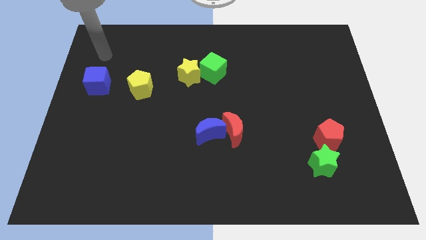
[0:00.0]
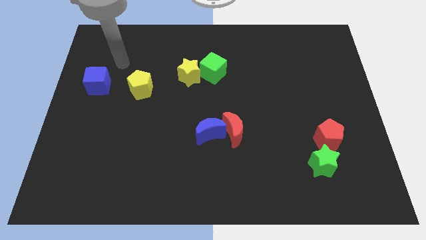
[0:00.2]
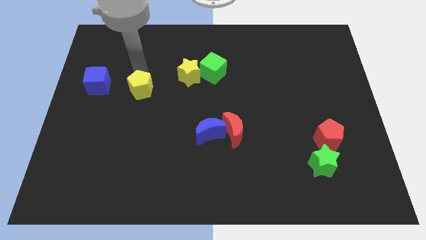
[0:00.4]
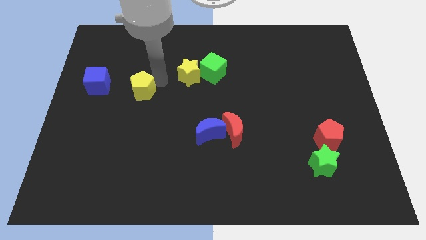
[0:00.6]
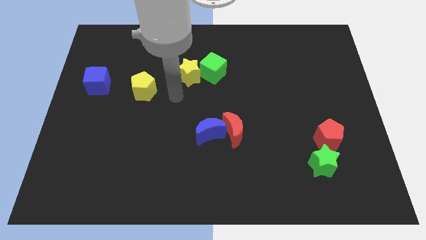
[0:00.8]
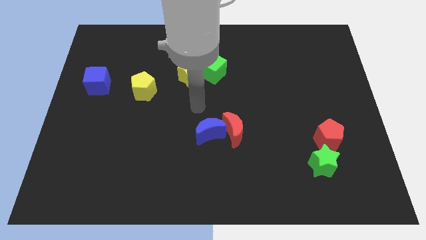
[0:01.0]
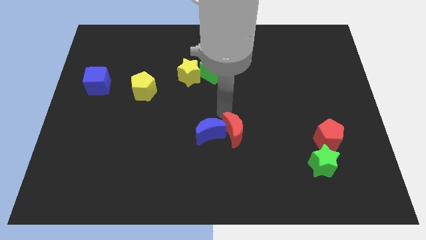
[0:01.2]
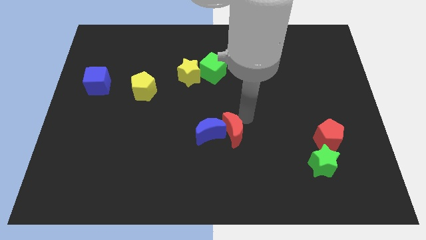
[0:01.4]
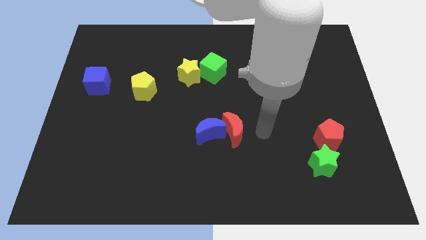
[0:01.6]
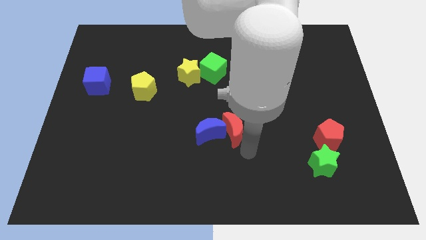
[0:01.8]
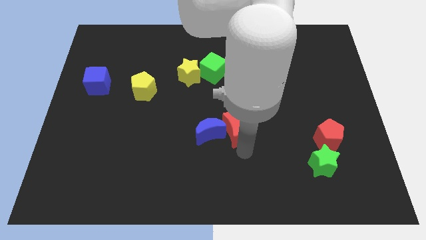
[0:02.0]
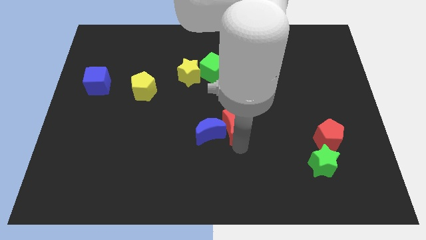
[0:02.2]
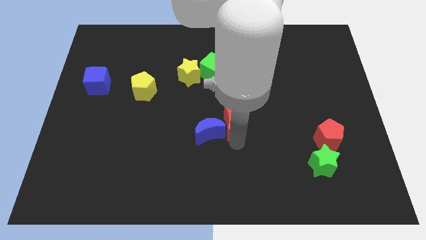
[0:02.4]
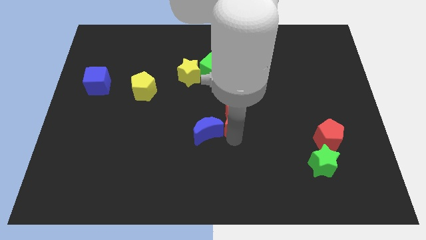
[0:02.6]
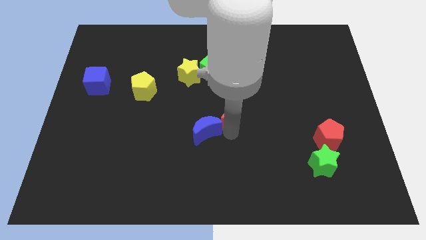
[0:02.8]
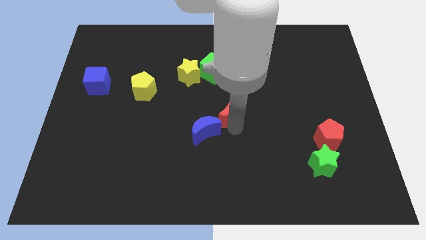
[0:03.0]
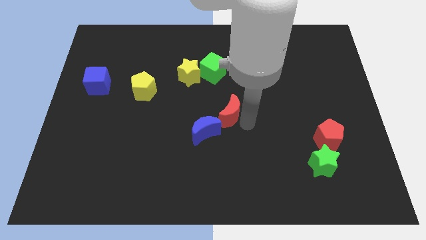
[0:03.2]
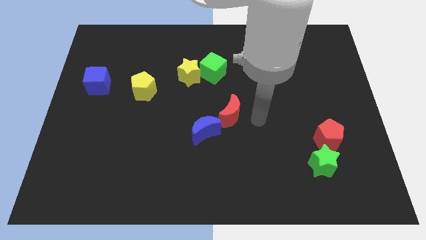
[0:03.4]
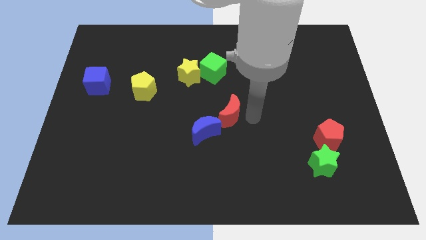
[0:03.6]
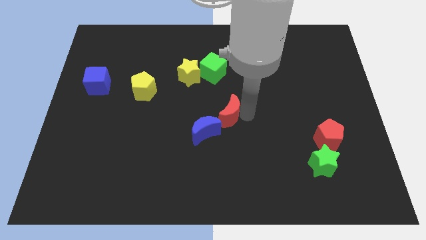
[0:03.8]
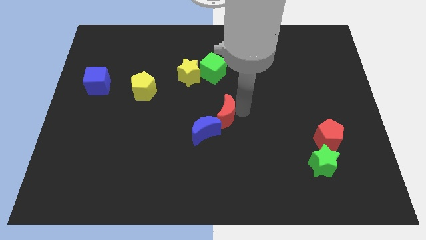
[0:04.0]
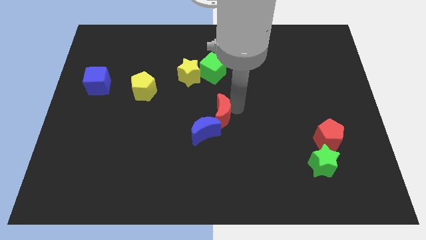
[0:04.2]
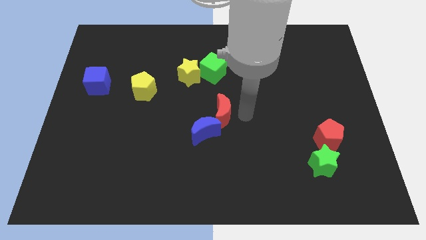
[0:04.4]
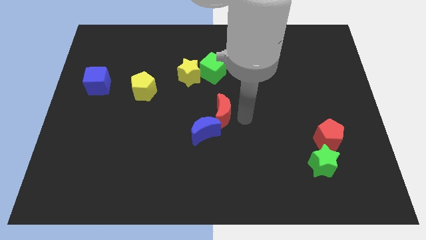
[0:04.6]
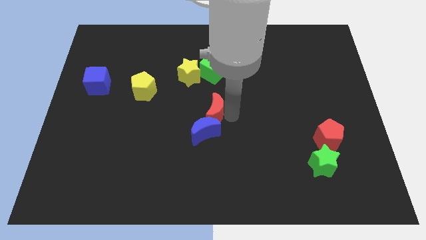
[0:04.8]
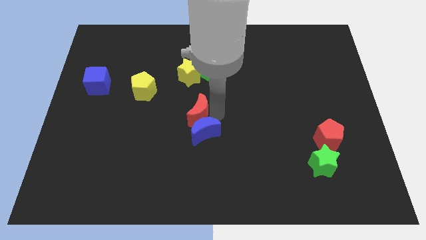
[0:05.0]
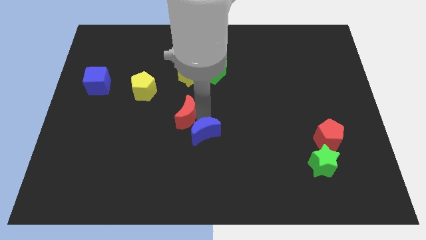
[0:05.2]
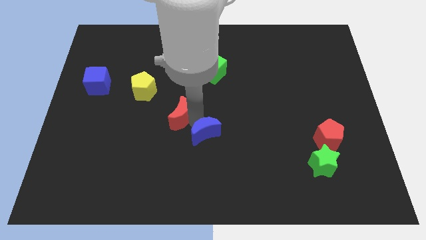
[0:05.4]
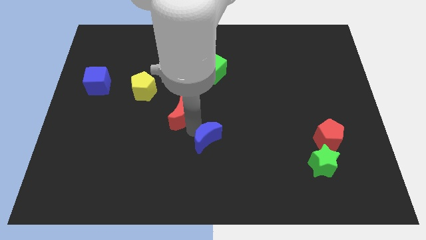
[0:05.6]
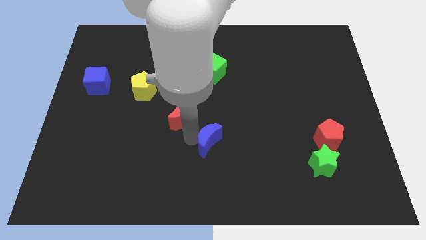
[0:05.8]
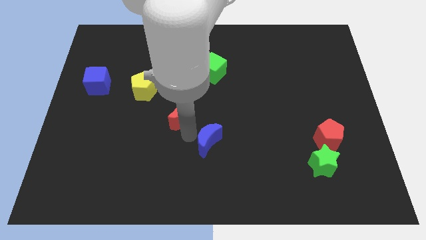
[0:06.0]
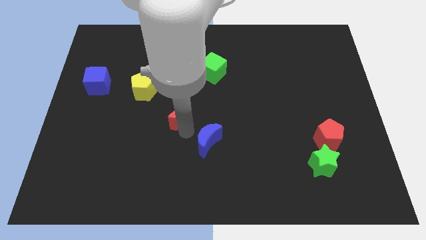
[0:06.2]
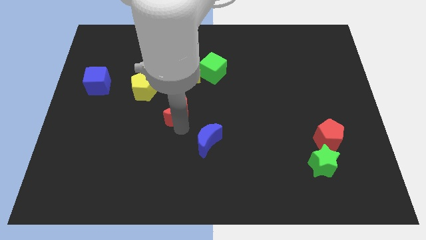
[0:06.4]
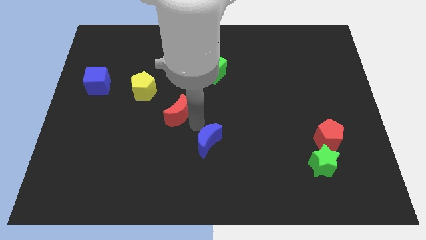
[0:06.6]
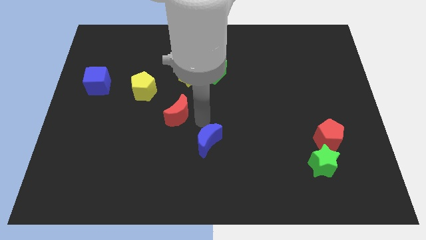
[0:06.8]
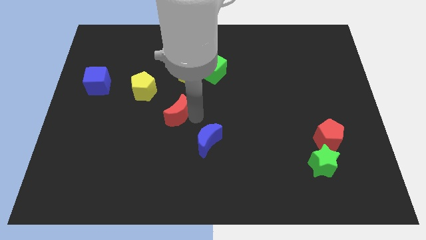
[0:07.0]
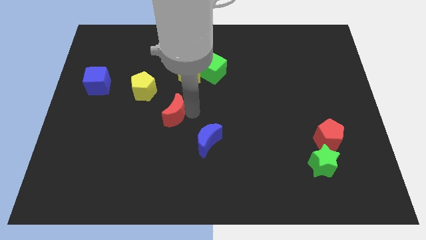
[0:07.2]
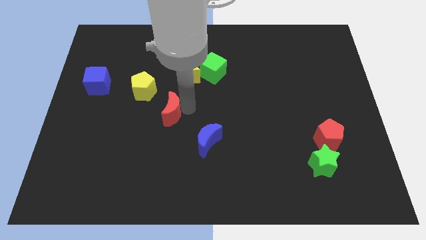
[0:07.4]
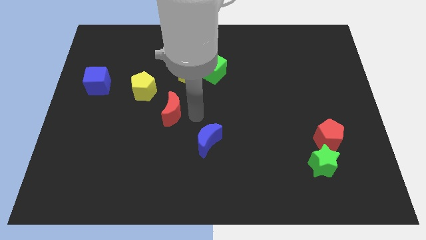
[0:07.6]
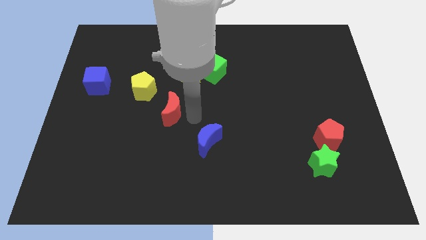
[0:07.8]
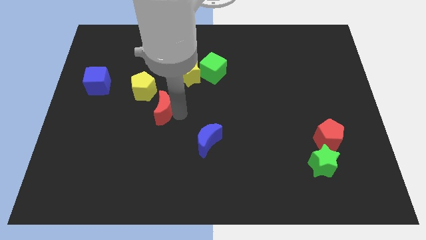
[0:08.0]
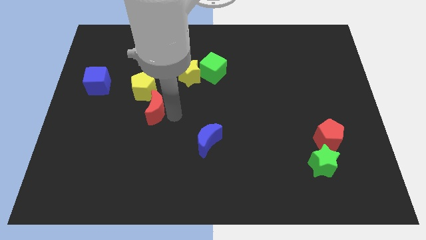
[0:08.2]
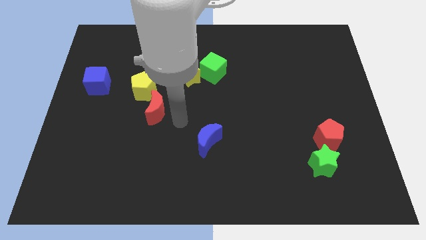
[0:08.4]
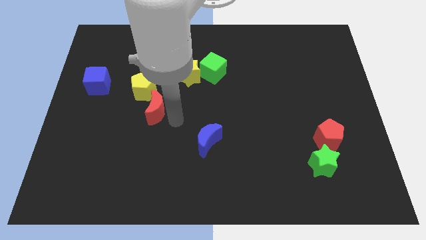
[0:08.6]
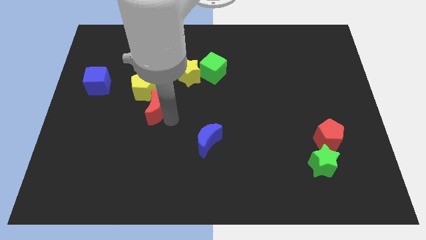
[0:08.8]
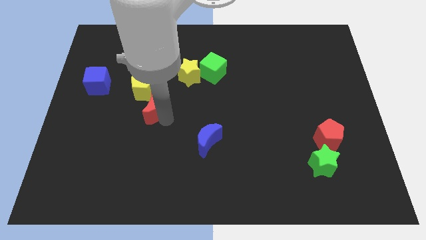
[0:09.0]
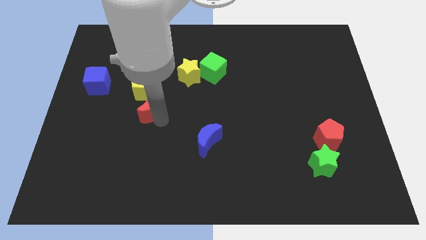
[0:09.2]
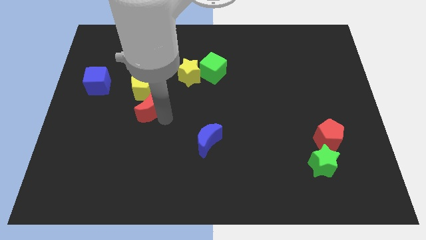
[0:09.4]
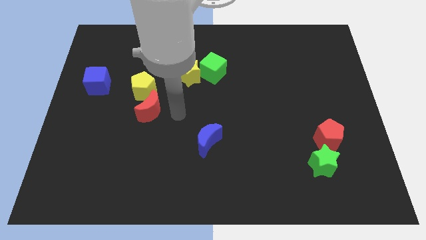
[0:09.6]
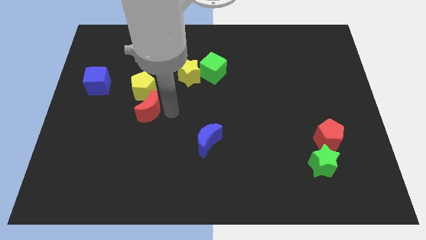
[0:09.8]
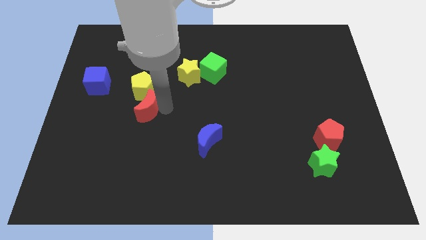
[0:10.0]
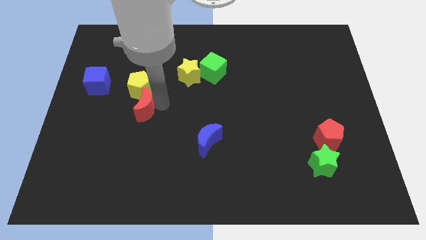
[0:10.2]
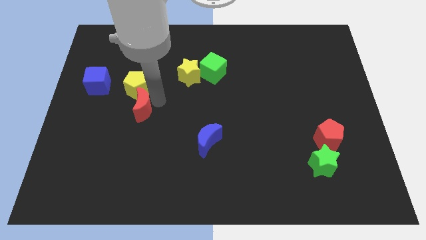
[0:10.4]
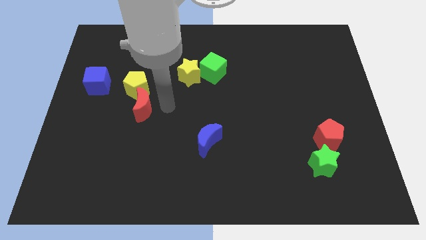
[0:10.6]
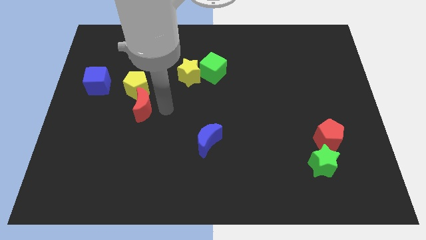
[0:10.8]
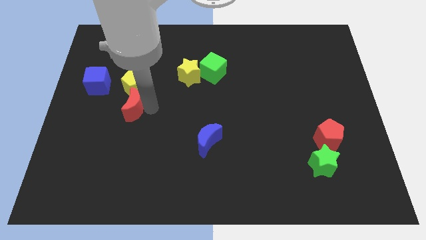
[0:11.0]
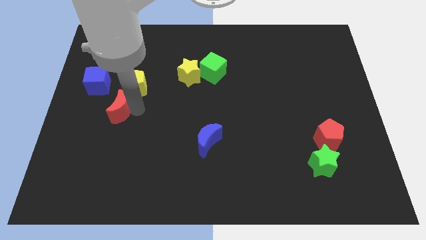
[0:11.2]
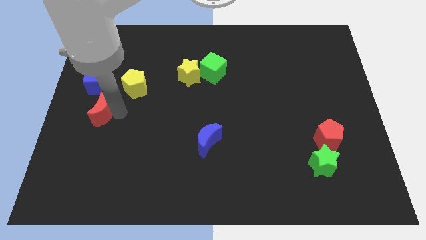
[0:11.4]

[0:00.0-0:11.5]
move the red moon to the left side of the board

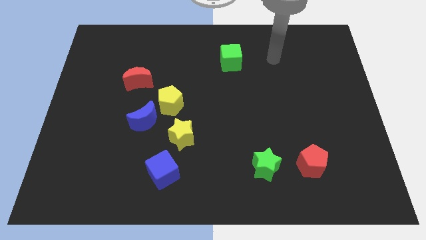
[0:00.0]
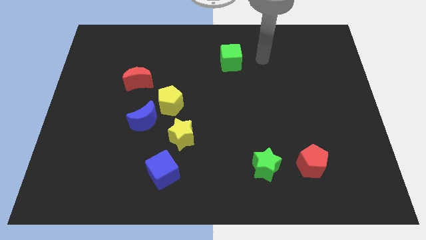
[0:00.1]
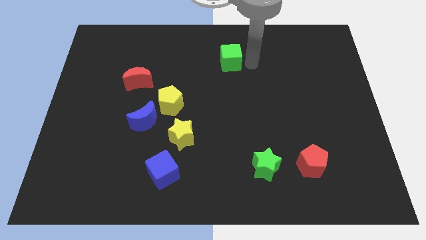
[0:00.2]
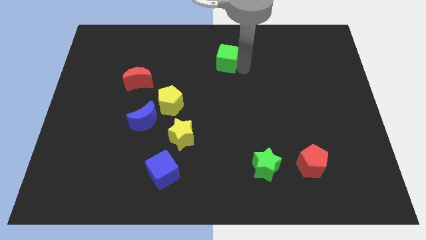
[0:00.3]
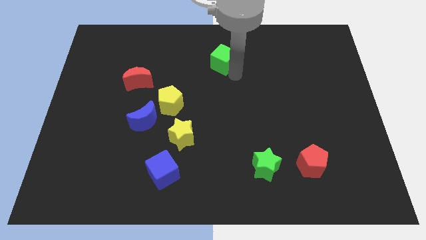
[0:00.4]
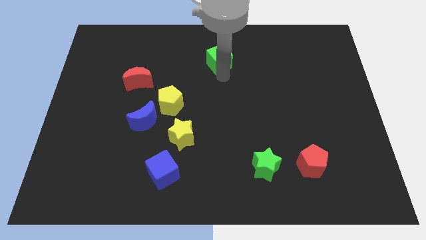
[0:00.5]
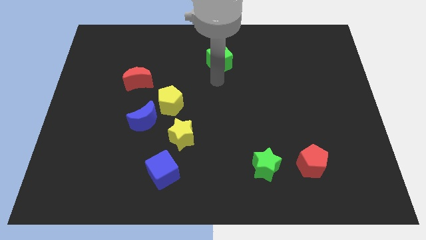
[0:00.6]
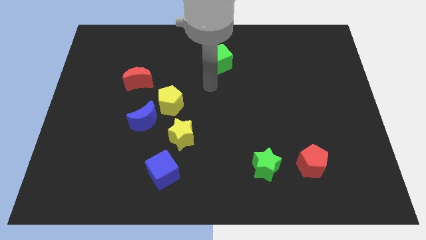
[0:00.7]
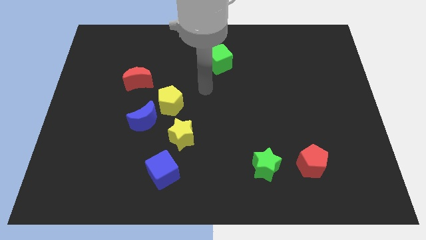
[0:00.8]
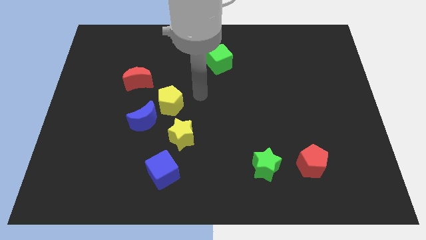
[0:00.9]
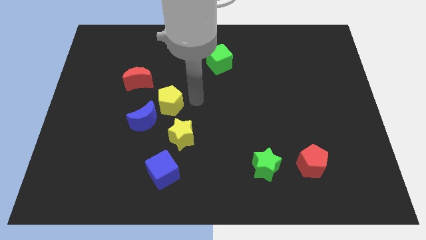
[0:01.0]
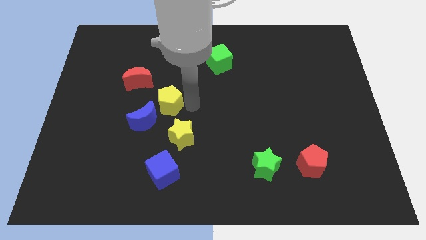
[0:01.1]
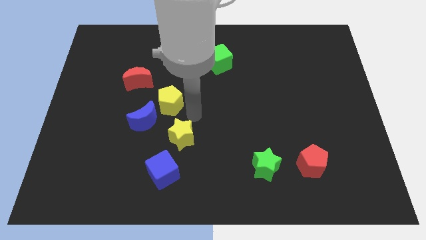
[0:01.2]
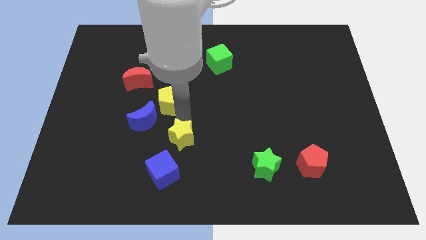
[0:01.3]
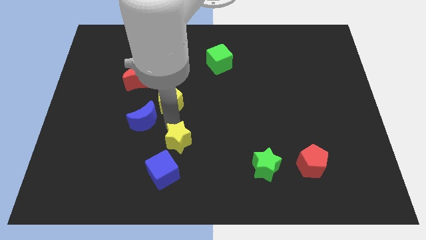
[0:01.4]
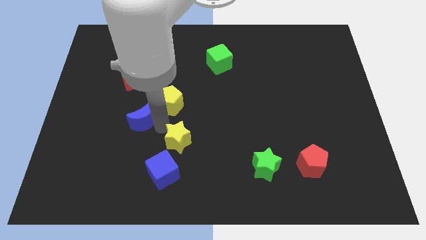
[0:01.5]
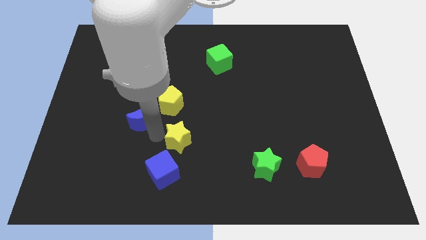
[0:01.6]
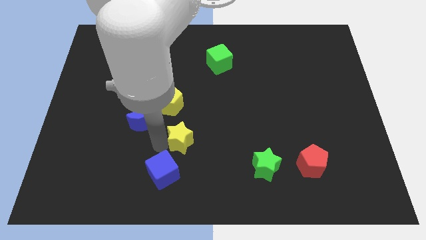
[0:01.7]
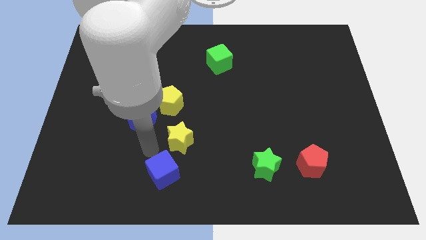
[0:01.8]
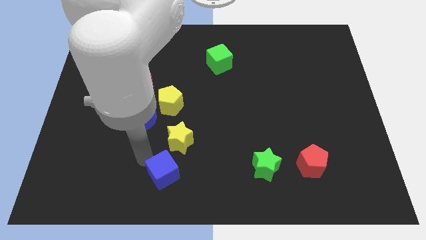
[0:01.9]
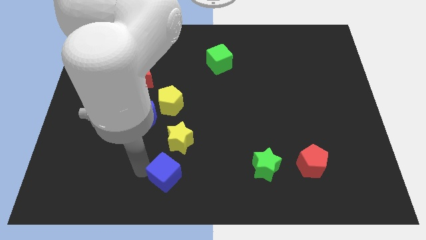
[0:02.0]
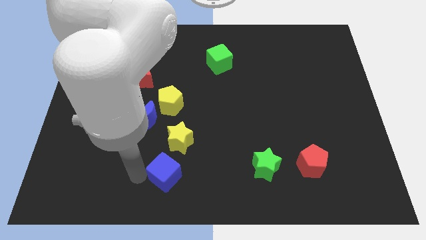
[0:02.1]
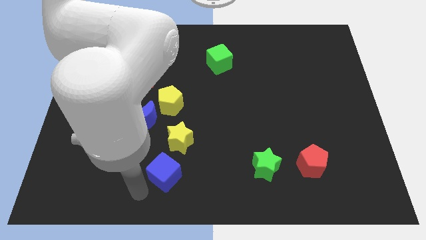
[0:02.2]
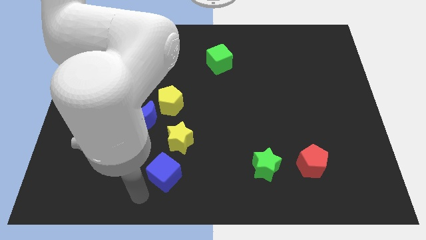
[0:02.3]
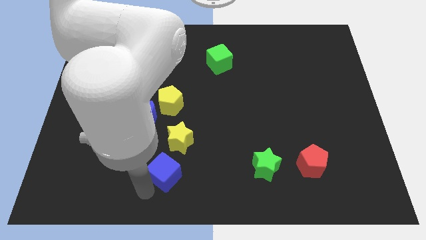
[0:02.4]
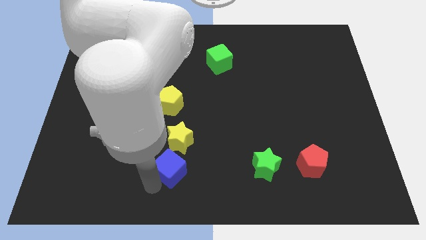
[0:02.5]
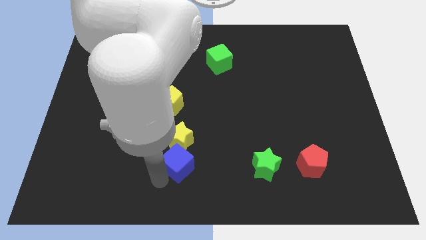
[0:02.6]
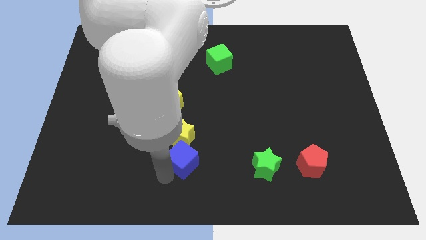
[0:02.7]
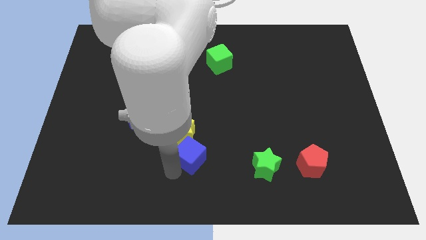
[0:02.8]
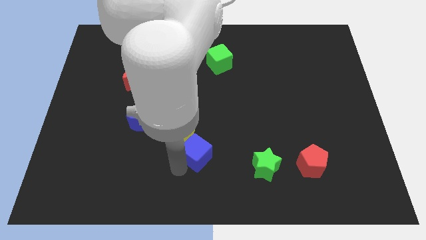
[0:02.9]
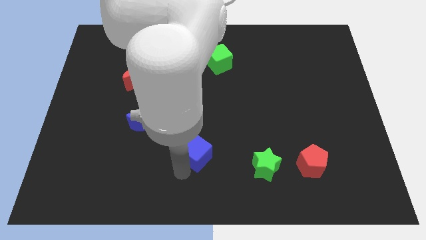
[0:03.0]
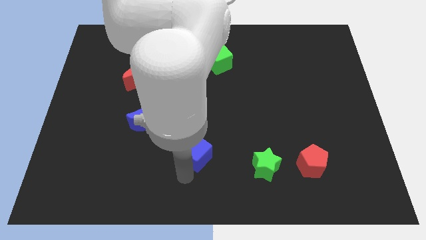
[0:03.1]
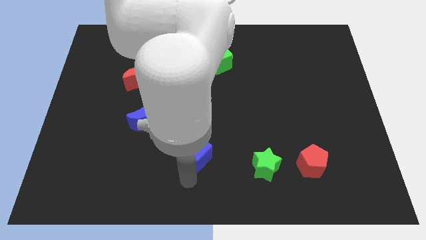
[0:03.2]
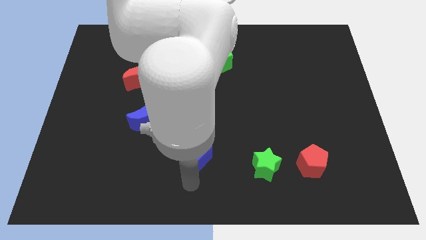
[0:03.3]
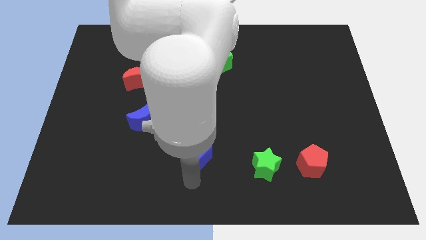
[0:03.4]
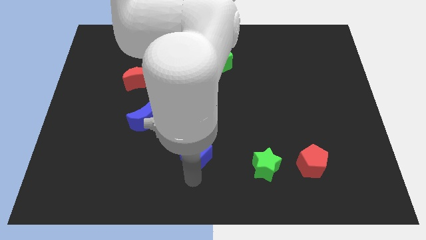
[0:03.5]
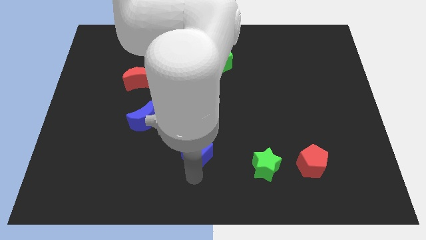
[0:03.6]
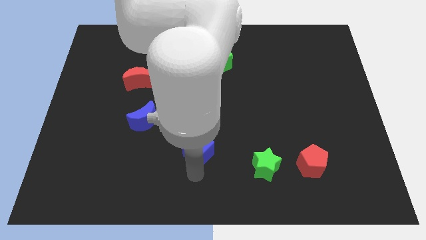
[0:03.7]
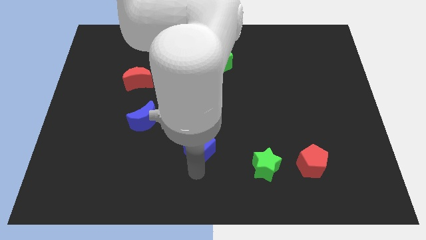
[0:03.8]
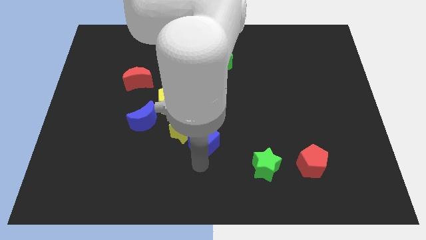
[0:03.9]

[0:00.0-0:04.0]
push the blue cube to the center of the board
